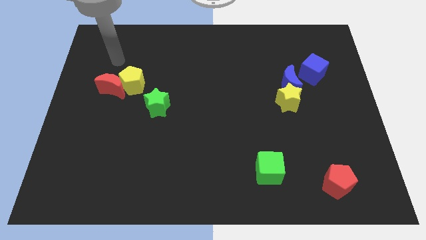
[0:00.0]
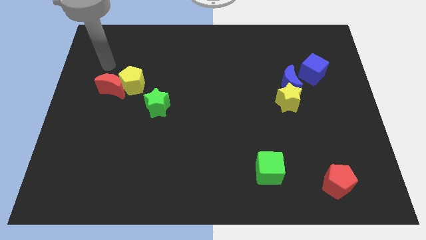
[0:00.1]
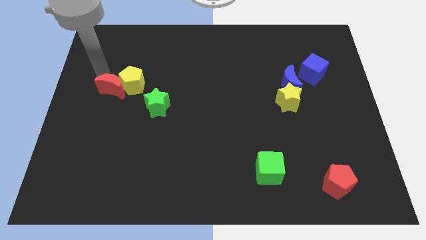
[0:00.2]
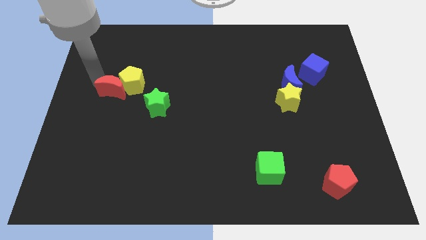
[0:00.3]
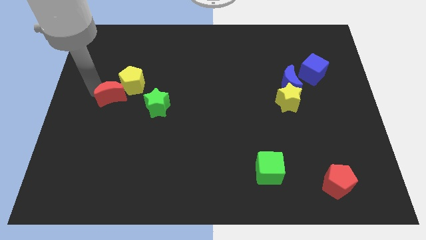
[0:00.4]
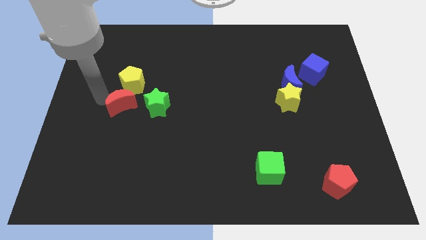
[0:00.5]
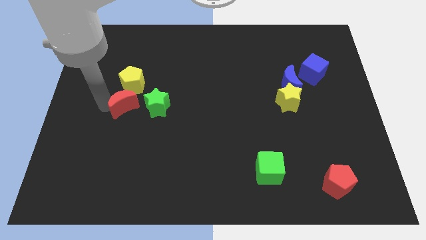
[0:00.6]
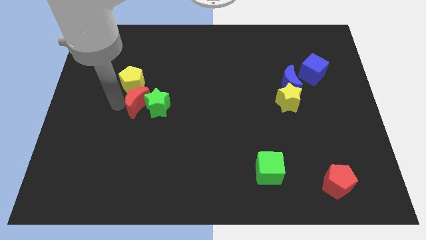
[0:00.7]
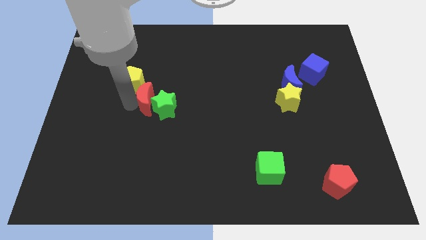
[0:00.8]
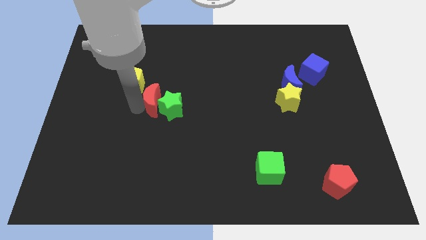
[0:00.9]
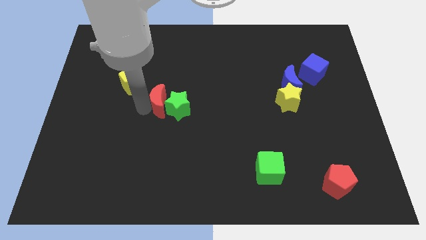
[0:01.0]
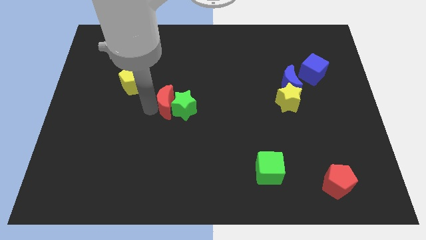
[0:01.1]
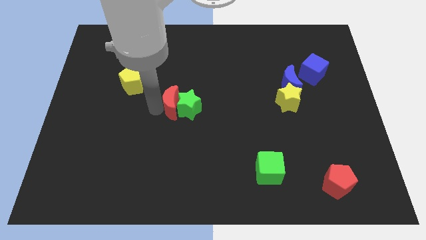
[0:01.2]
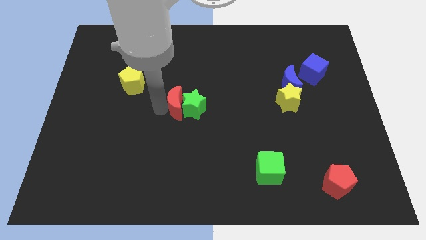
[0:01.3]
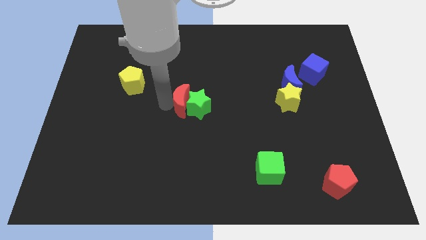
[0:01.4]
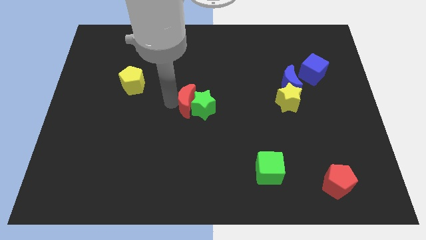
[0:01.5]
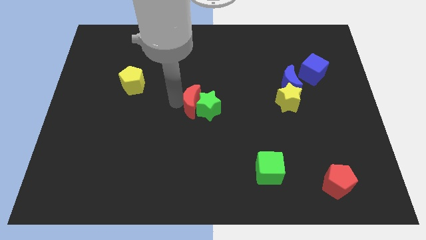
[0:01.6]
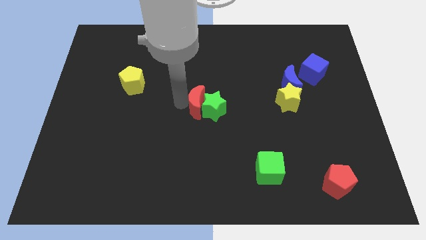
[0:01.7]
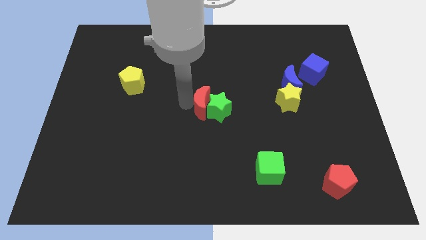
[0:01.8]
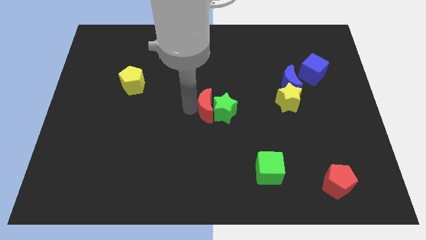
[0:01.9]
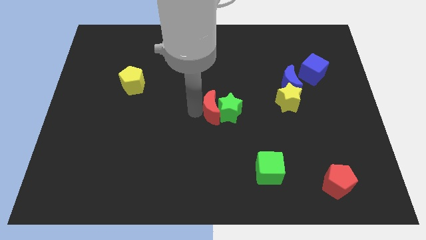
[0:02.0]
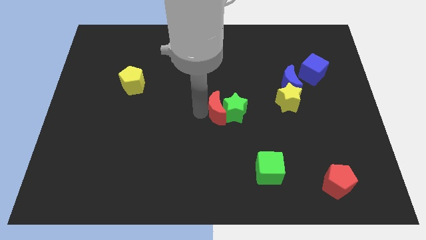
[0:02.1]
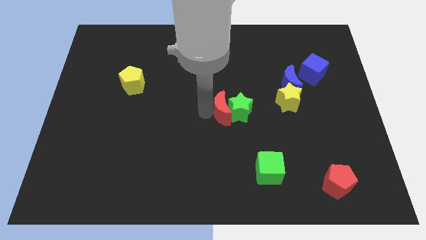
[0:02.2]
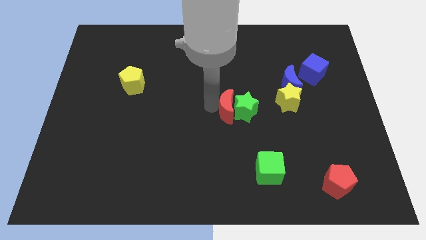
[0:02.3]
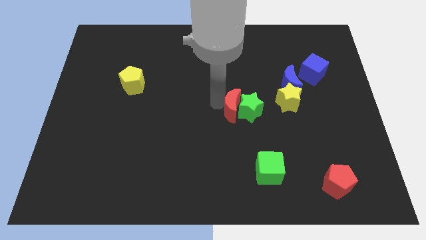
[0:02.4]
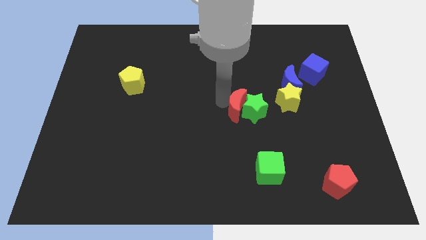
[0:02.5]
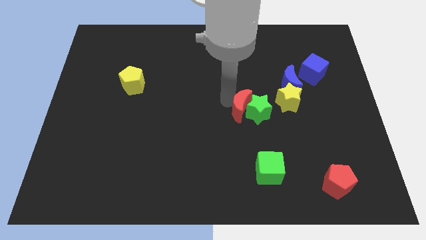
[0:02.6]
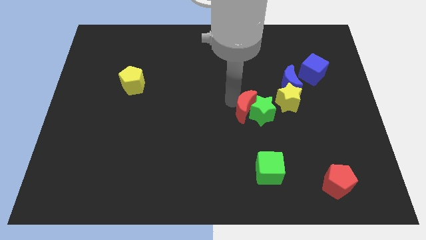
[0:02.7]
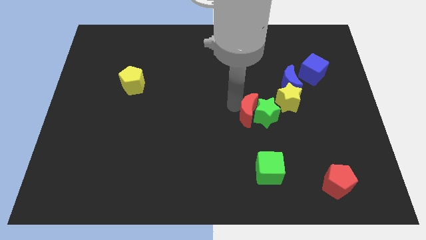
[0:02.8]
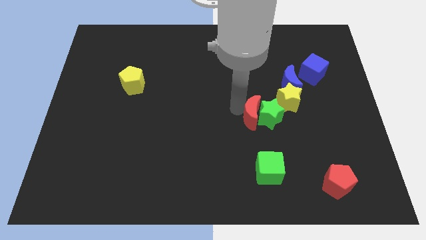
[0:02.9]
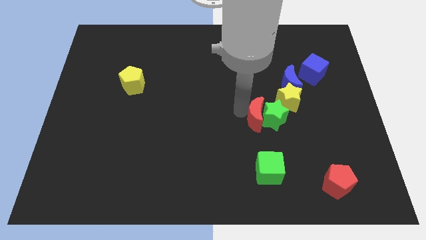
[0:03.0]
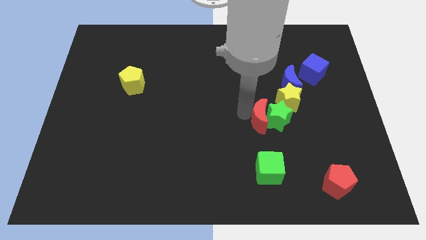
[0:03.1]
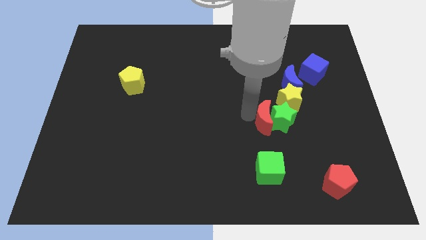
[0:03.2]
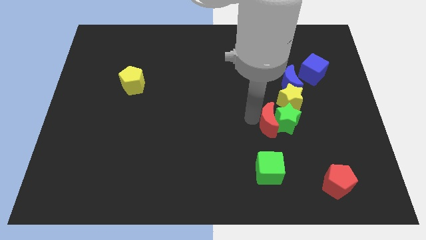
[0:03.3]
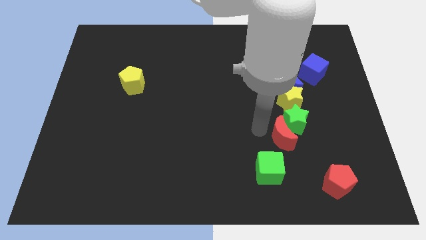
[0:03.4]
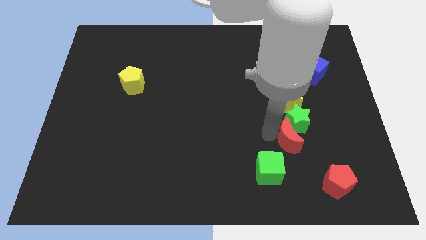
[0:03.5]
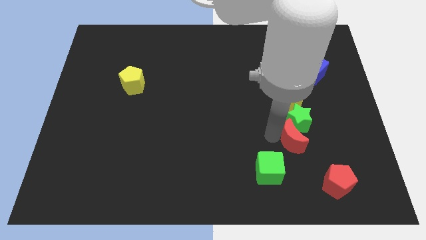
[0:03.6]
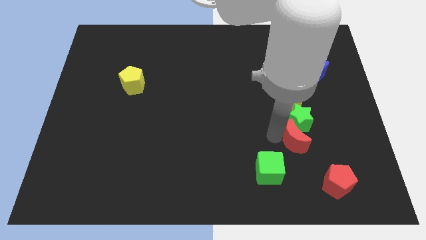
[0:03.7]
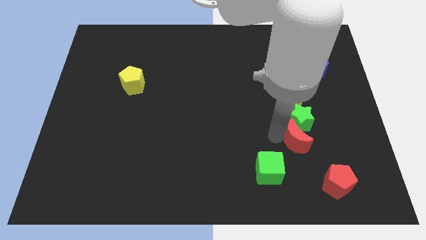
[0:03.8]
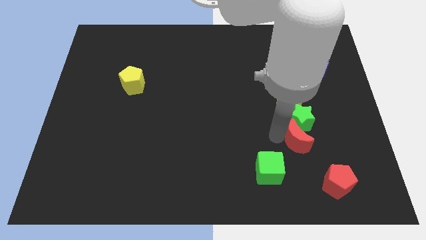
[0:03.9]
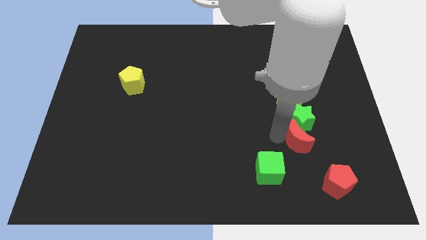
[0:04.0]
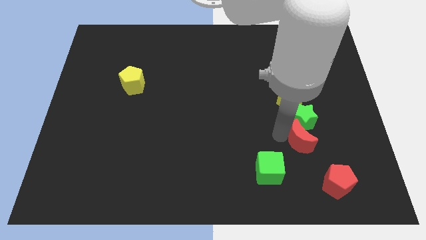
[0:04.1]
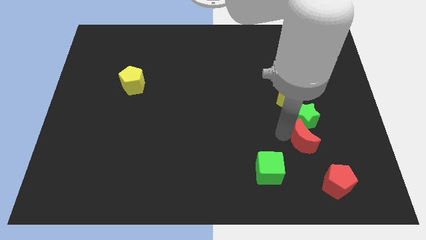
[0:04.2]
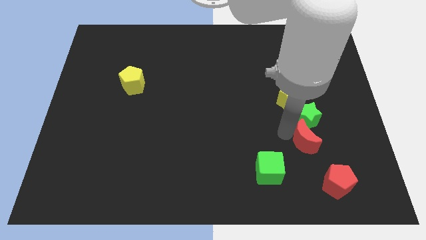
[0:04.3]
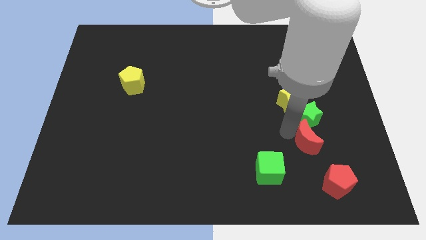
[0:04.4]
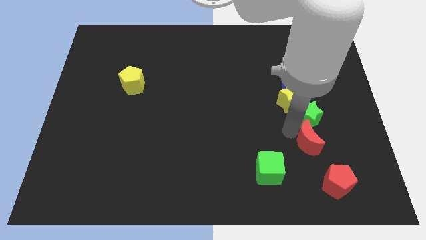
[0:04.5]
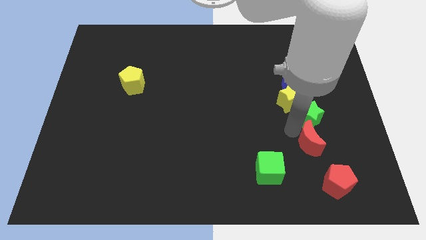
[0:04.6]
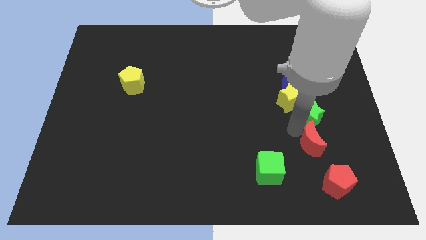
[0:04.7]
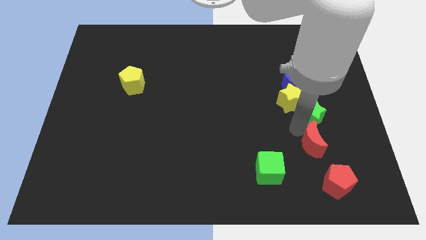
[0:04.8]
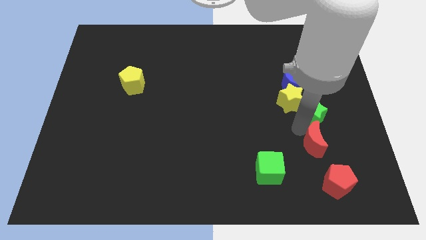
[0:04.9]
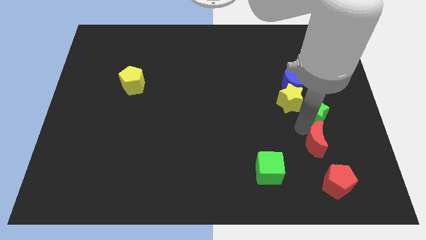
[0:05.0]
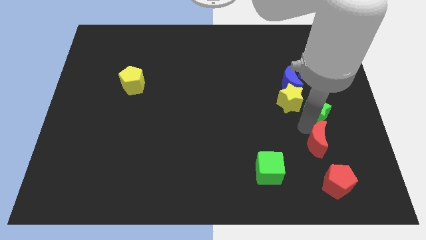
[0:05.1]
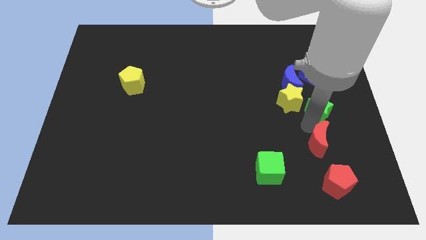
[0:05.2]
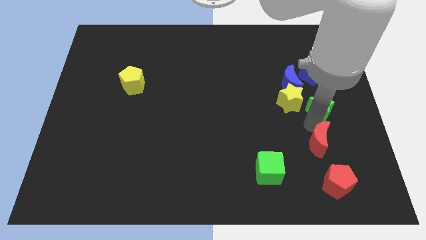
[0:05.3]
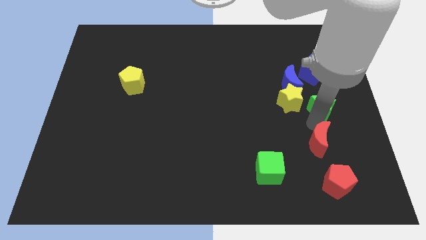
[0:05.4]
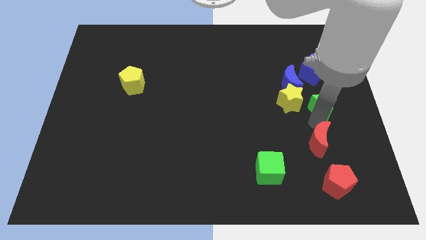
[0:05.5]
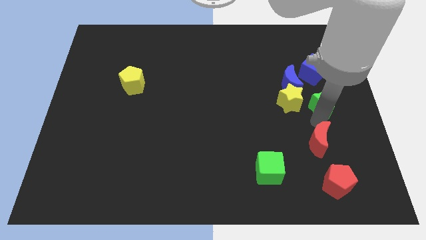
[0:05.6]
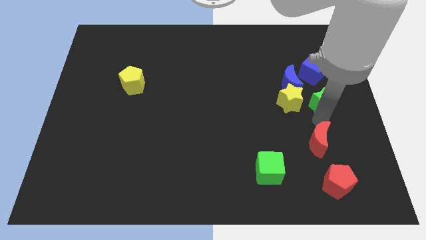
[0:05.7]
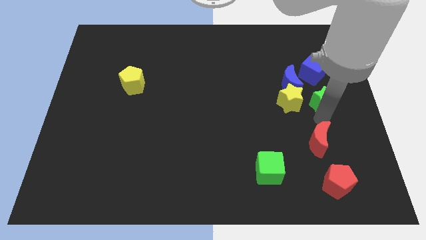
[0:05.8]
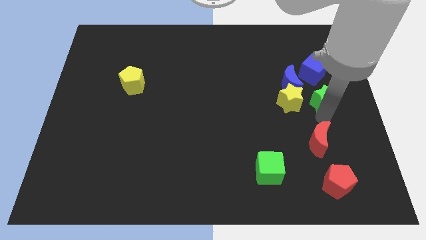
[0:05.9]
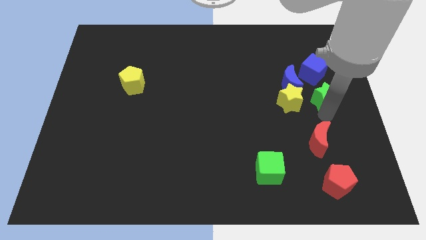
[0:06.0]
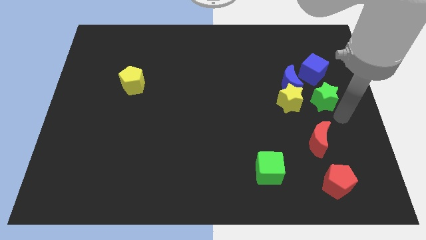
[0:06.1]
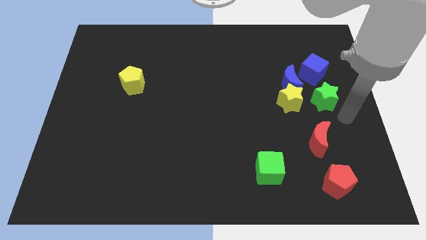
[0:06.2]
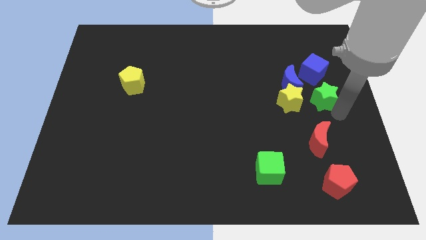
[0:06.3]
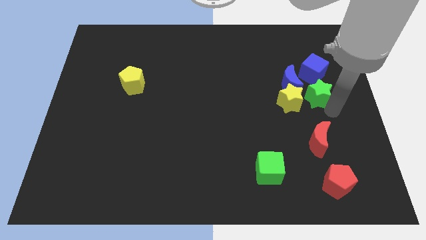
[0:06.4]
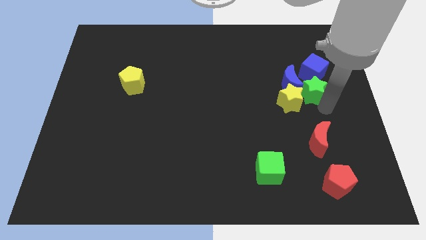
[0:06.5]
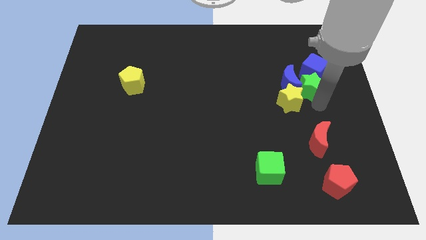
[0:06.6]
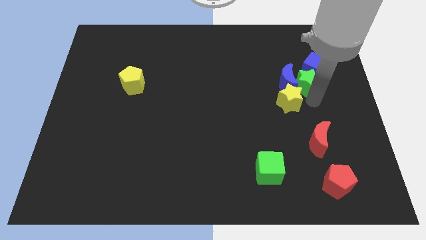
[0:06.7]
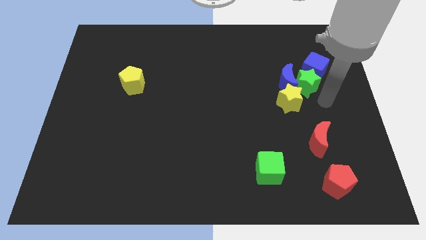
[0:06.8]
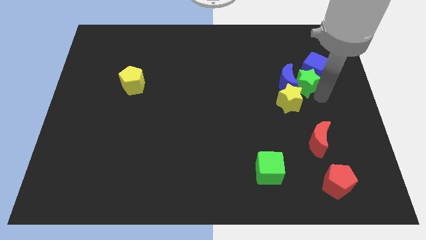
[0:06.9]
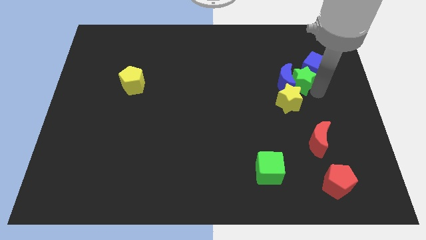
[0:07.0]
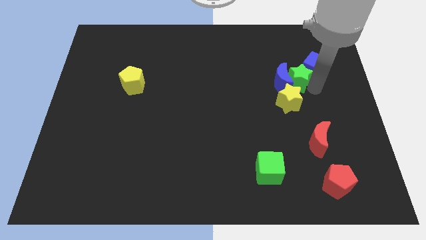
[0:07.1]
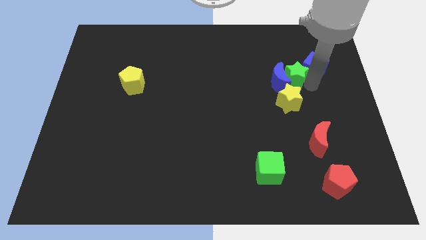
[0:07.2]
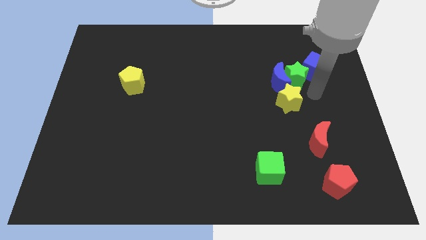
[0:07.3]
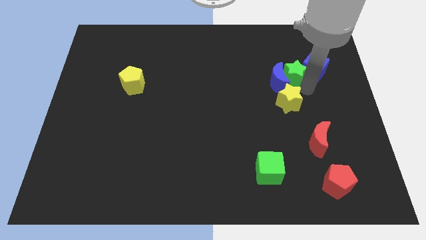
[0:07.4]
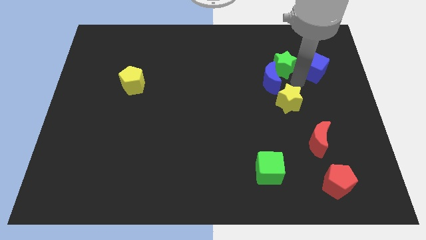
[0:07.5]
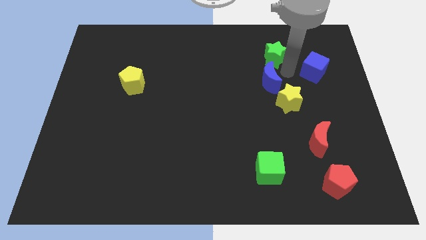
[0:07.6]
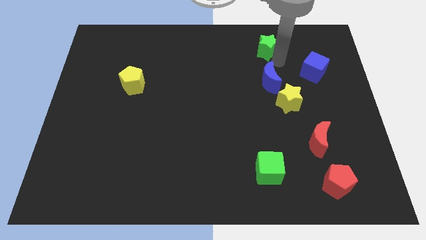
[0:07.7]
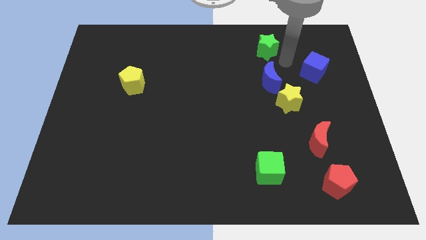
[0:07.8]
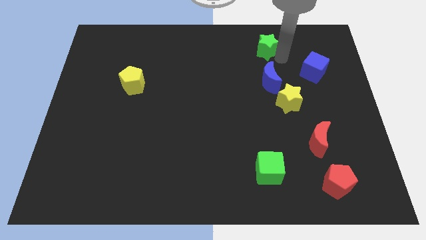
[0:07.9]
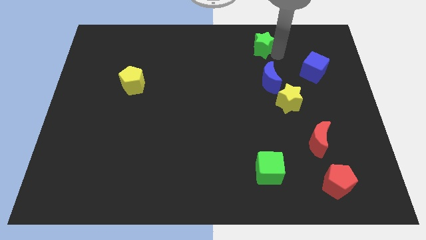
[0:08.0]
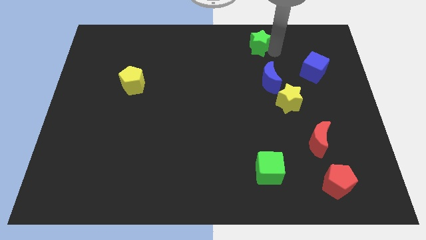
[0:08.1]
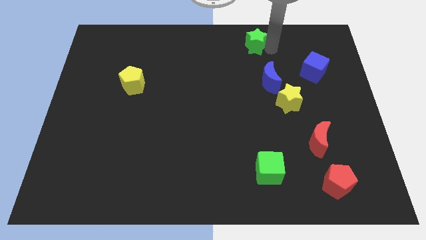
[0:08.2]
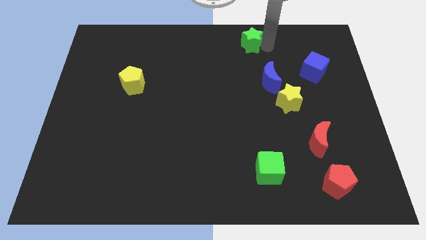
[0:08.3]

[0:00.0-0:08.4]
slide the green star to the towards your base
